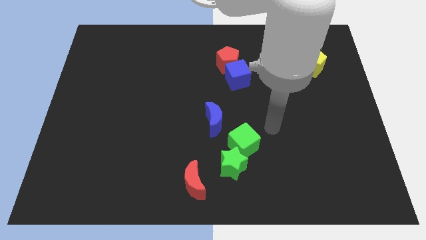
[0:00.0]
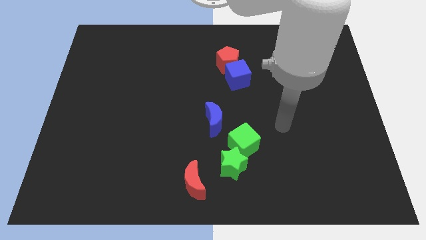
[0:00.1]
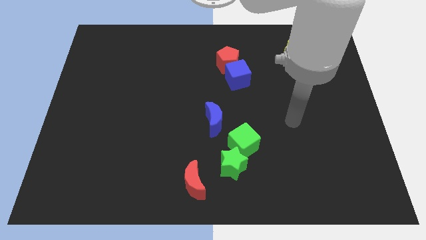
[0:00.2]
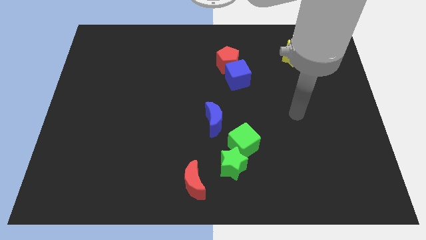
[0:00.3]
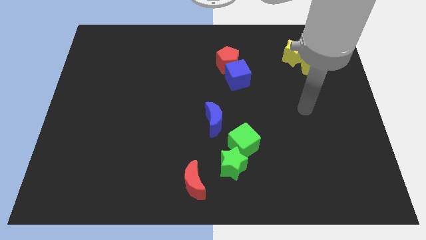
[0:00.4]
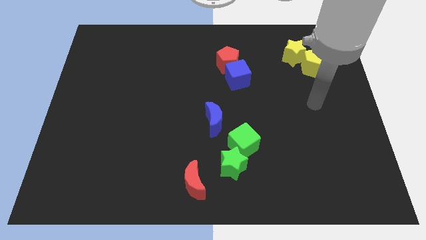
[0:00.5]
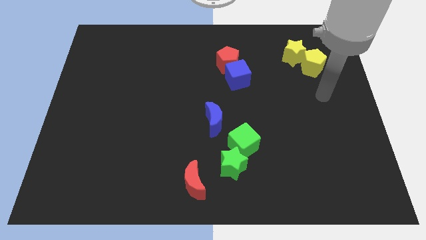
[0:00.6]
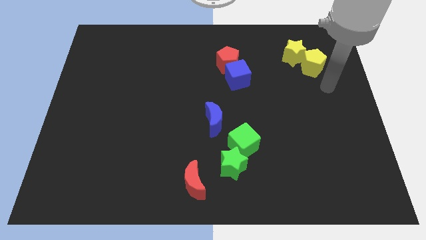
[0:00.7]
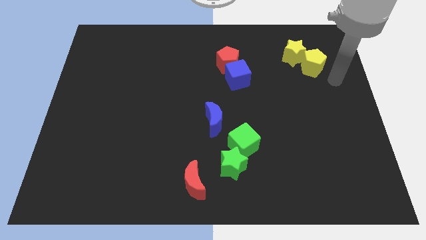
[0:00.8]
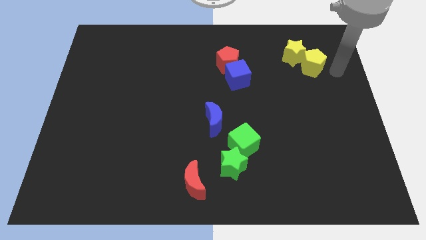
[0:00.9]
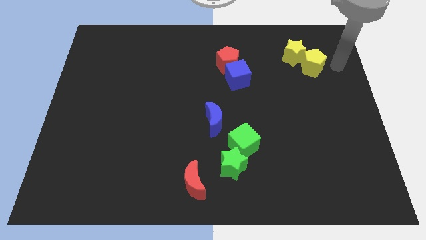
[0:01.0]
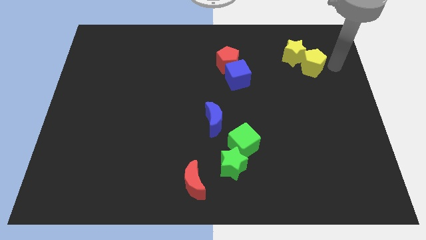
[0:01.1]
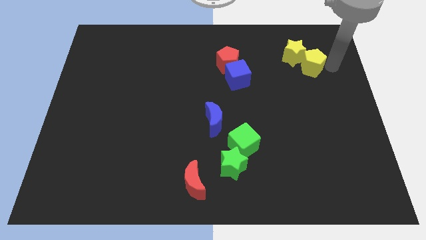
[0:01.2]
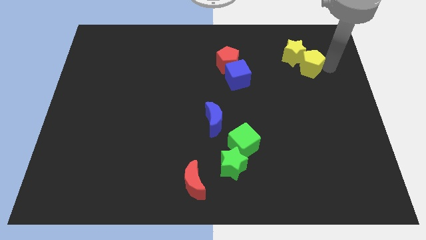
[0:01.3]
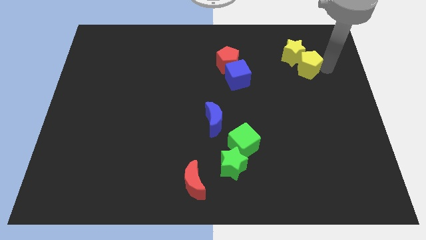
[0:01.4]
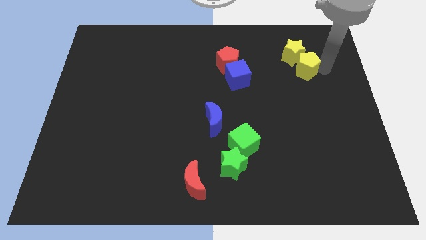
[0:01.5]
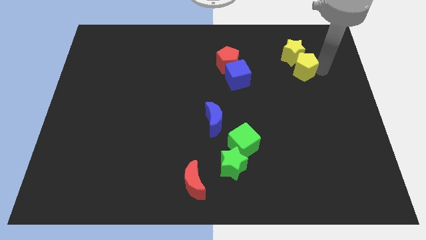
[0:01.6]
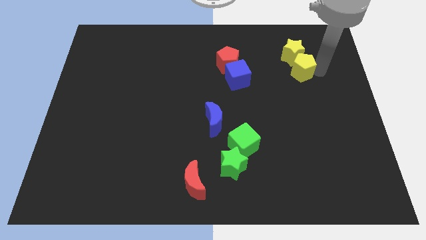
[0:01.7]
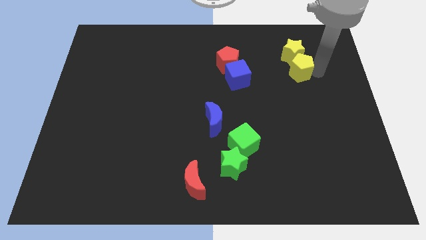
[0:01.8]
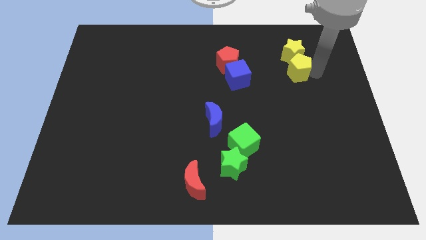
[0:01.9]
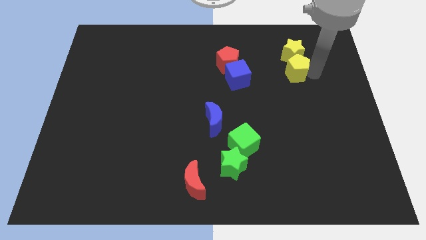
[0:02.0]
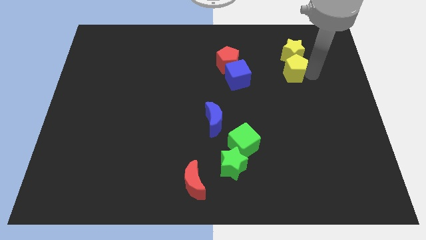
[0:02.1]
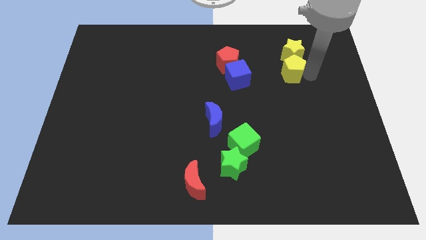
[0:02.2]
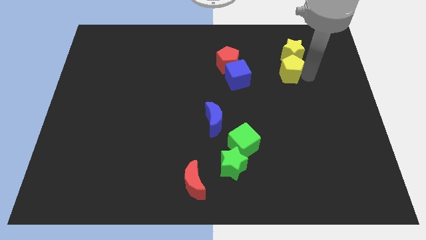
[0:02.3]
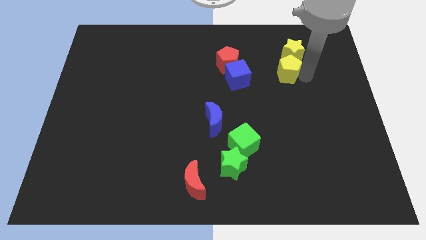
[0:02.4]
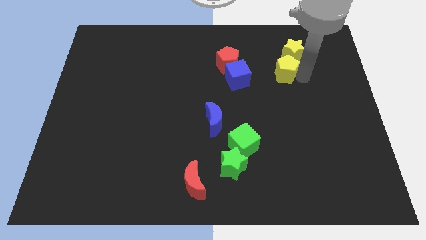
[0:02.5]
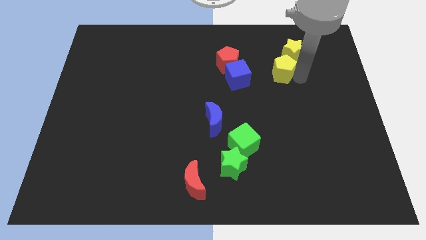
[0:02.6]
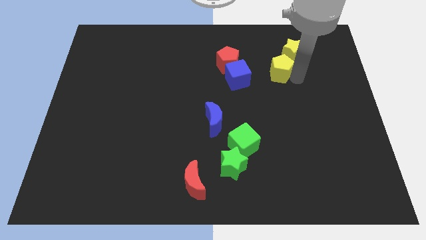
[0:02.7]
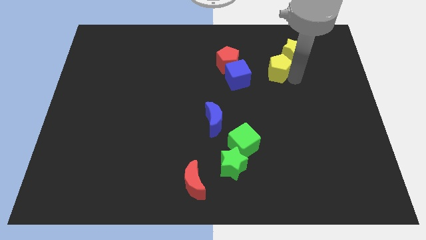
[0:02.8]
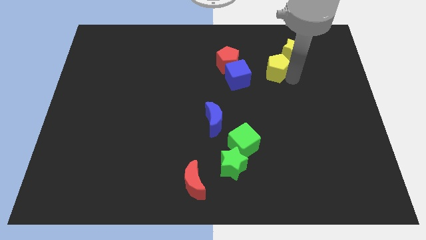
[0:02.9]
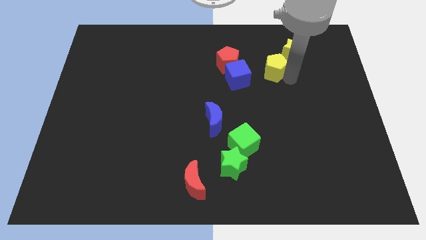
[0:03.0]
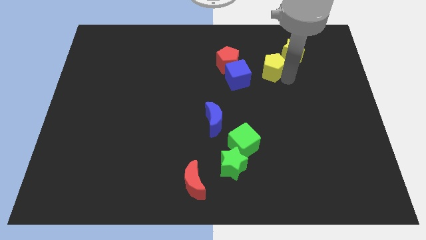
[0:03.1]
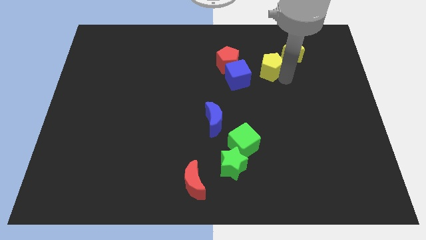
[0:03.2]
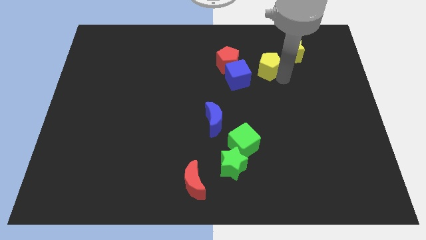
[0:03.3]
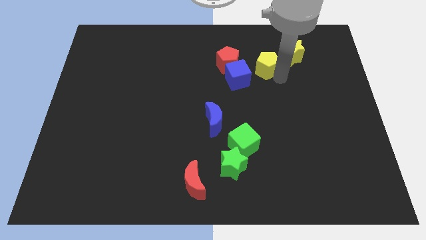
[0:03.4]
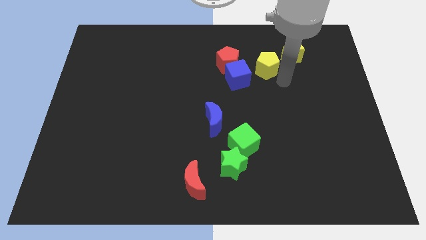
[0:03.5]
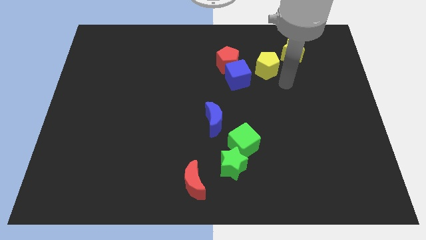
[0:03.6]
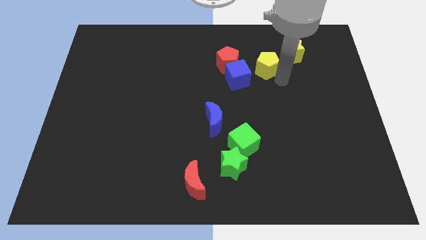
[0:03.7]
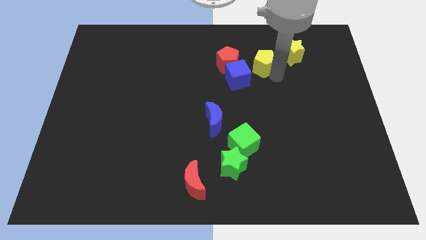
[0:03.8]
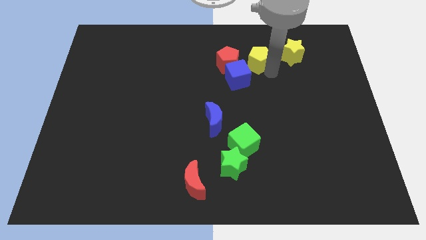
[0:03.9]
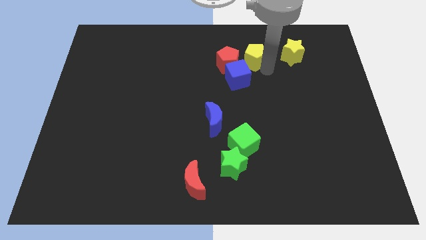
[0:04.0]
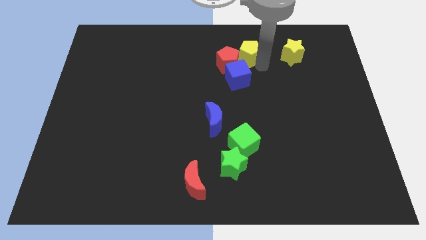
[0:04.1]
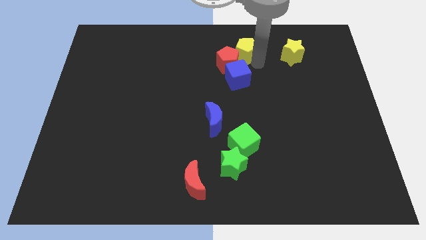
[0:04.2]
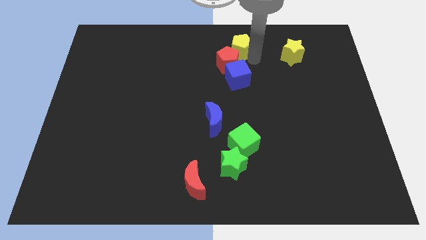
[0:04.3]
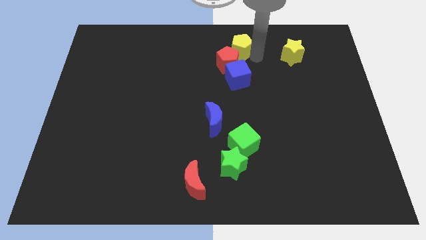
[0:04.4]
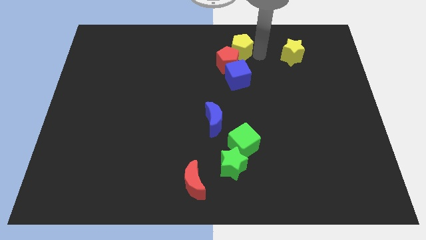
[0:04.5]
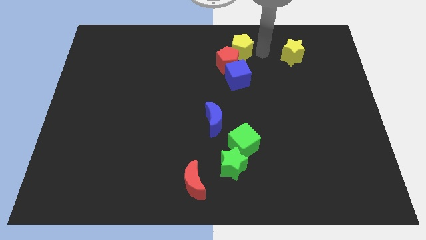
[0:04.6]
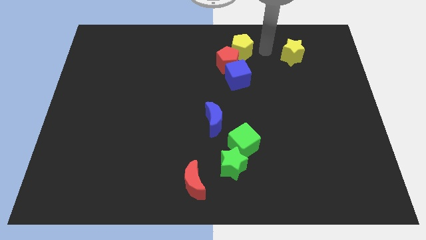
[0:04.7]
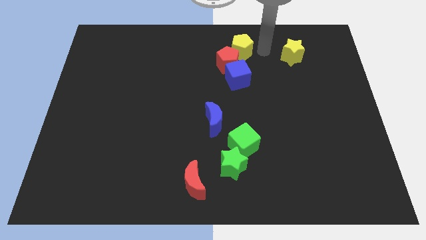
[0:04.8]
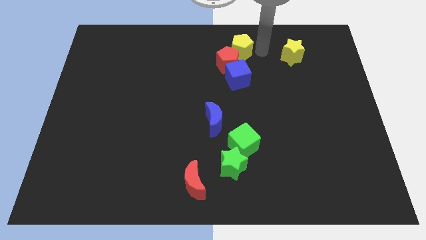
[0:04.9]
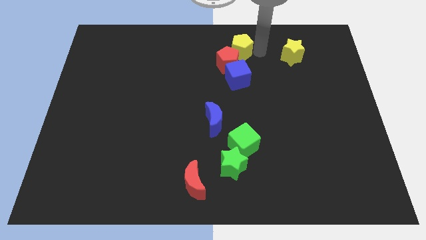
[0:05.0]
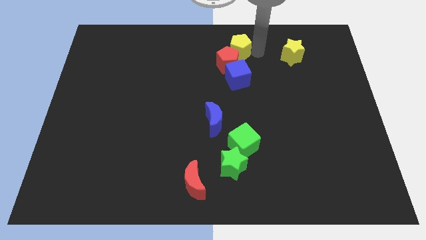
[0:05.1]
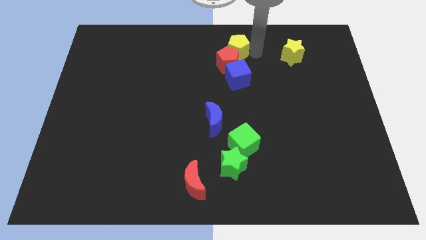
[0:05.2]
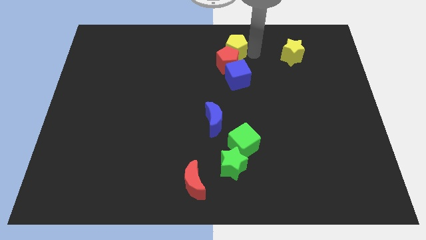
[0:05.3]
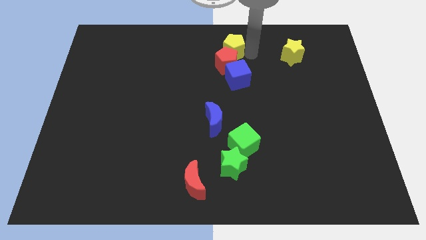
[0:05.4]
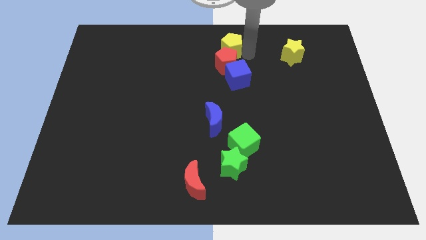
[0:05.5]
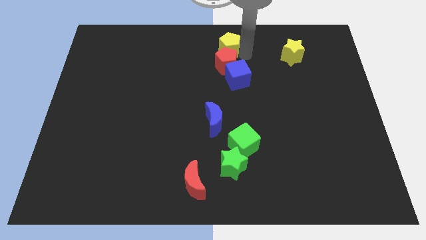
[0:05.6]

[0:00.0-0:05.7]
push the yellow pentagon to the left

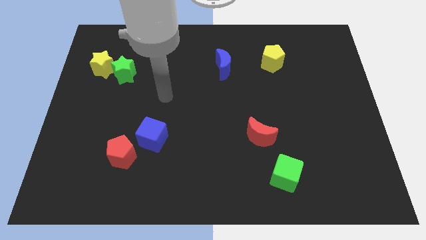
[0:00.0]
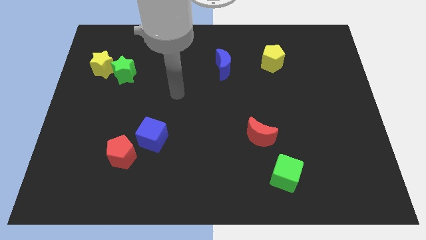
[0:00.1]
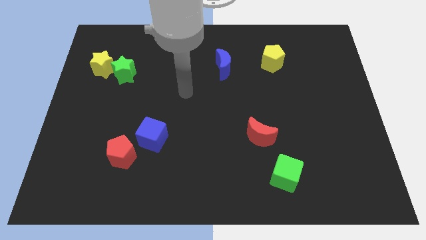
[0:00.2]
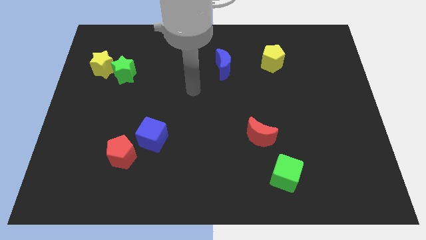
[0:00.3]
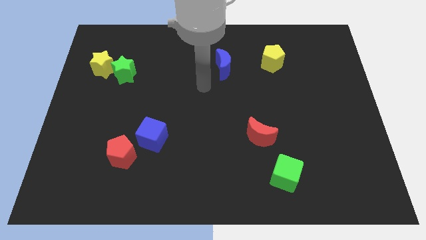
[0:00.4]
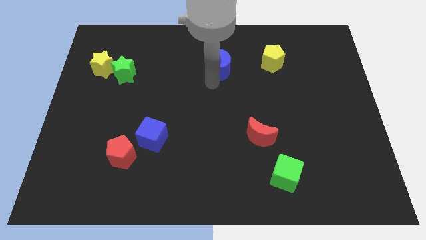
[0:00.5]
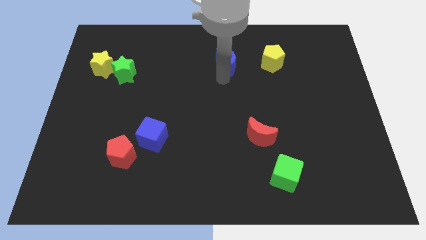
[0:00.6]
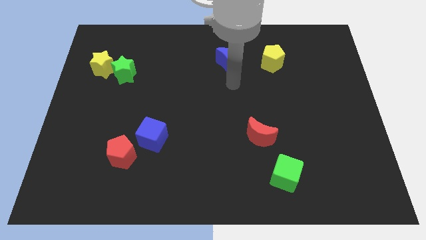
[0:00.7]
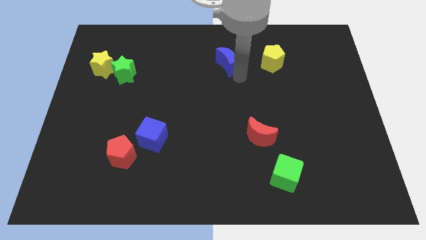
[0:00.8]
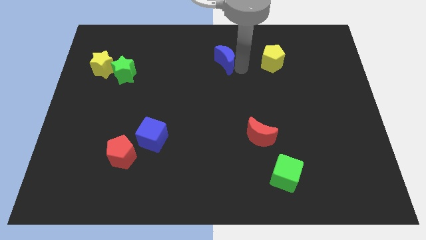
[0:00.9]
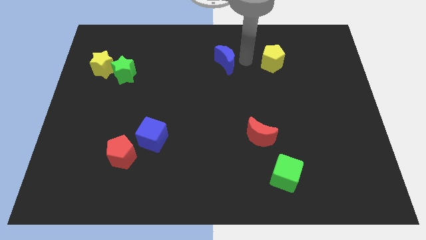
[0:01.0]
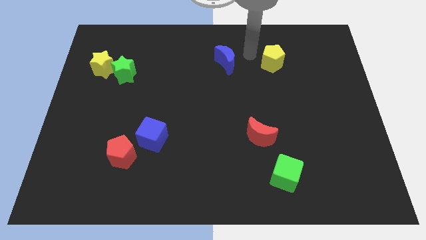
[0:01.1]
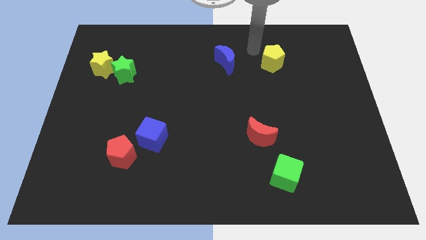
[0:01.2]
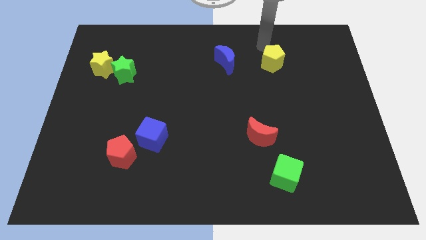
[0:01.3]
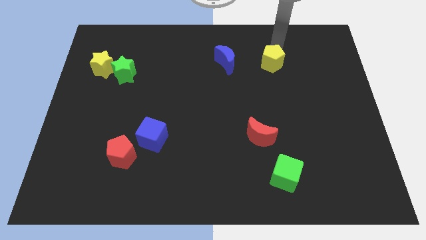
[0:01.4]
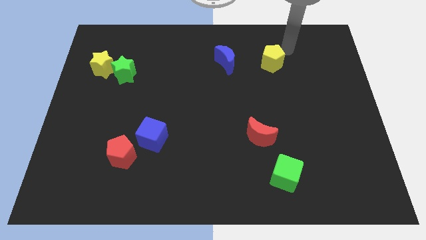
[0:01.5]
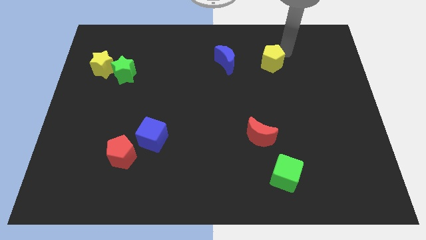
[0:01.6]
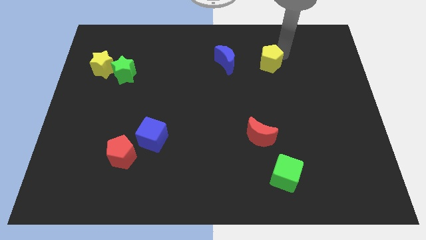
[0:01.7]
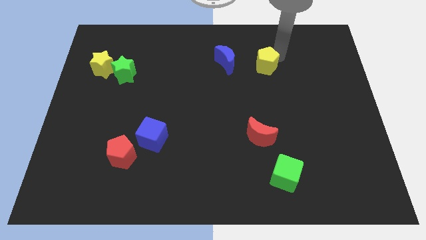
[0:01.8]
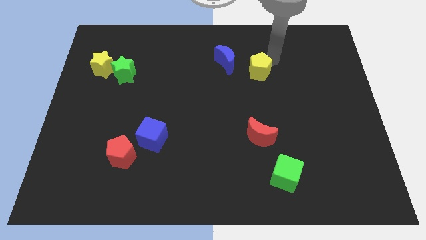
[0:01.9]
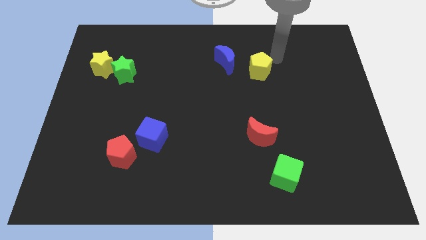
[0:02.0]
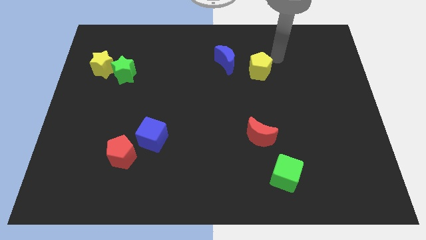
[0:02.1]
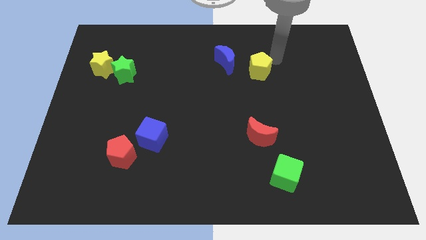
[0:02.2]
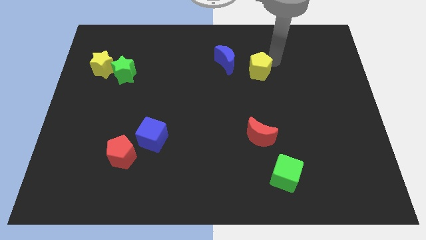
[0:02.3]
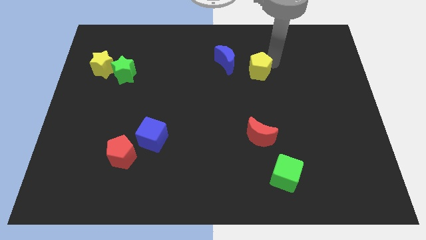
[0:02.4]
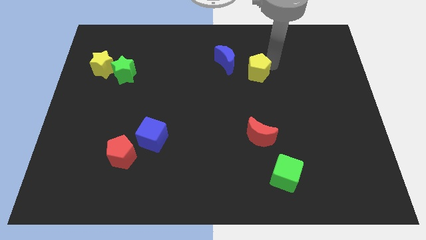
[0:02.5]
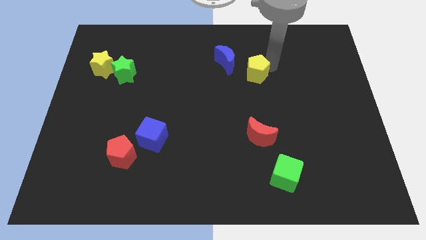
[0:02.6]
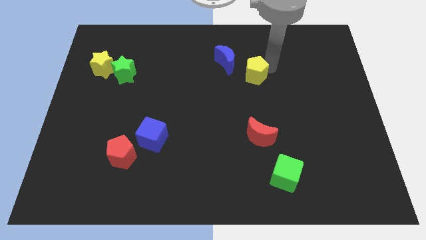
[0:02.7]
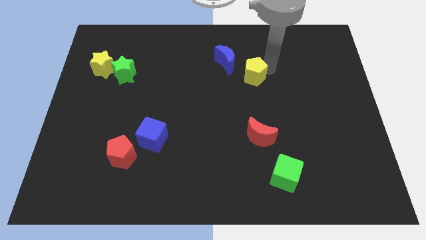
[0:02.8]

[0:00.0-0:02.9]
slightly move the yellow pentagon downwards and left diagonally
